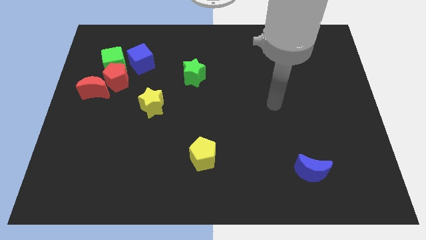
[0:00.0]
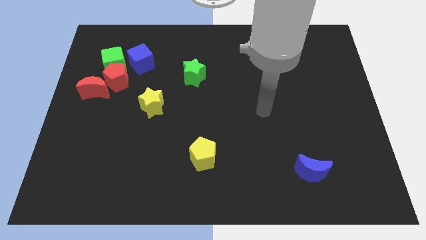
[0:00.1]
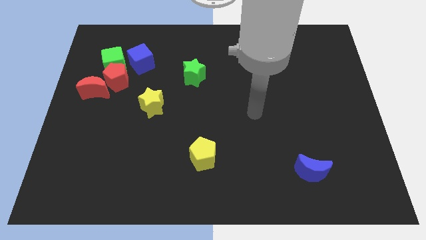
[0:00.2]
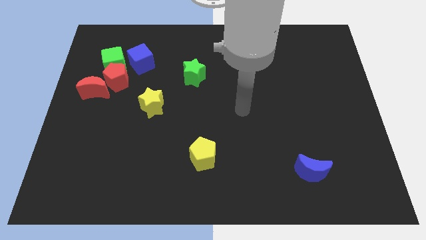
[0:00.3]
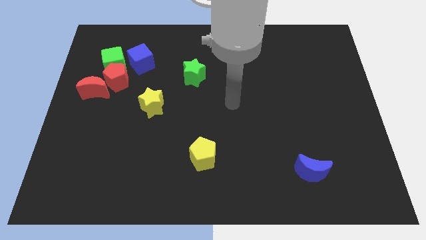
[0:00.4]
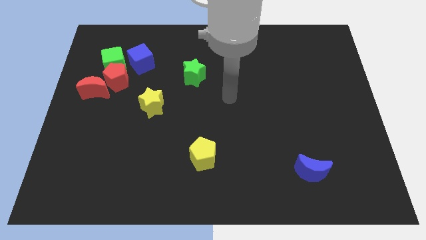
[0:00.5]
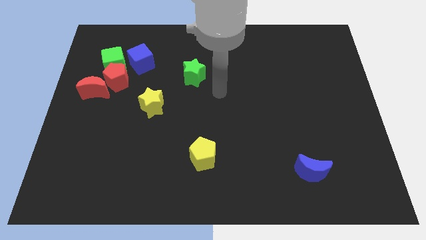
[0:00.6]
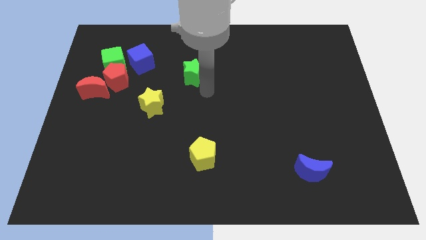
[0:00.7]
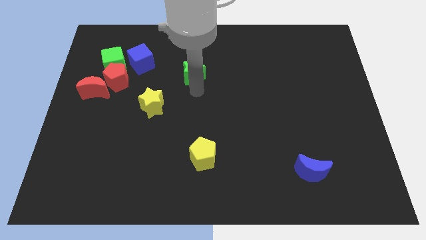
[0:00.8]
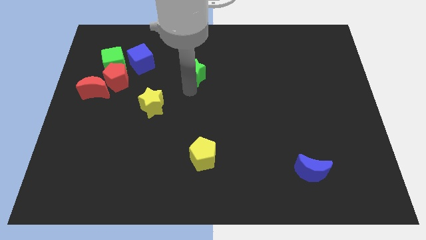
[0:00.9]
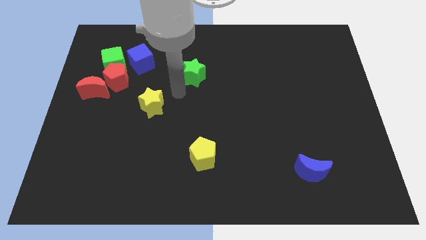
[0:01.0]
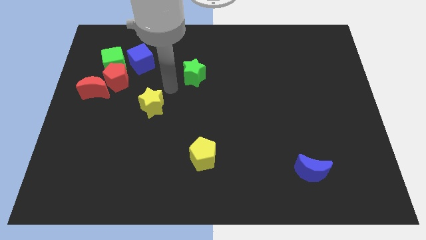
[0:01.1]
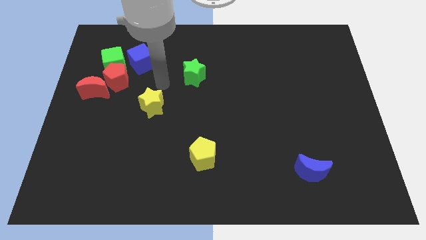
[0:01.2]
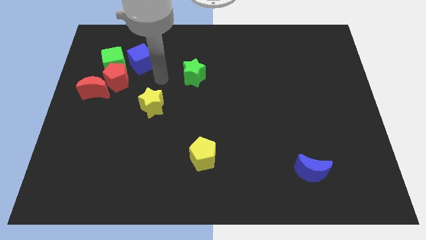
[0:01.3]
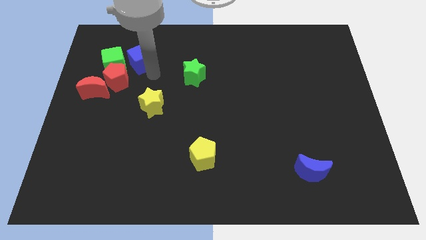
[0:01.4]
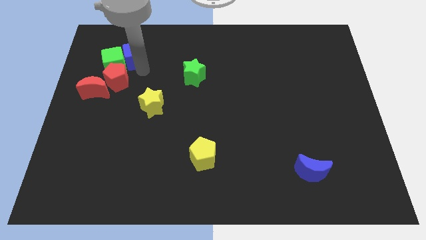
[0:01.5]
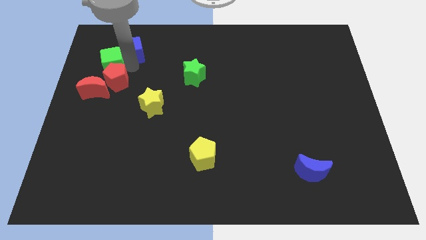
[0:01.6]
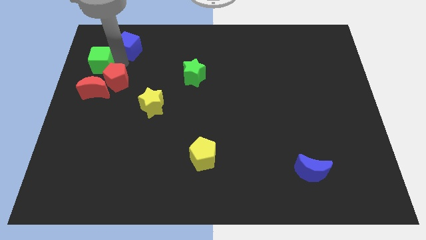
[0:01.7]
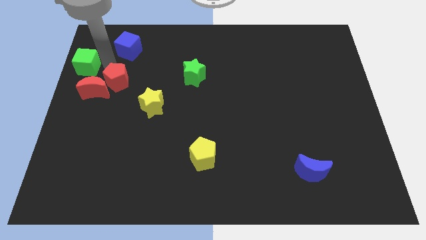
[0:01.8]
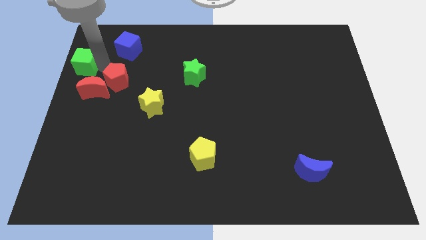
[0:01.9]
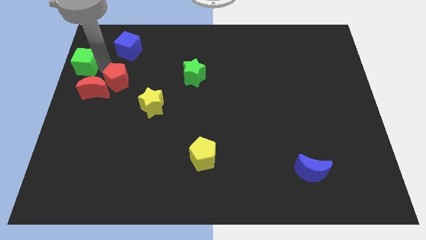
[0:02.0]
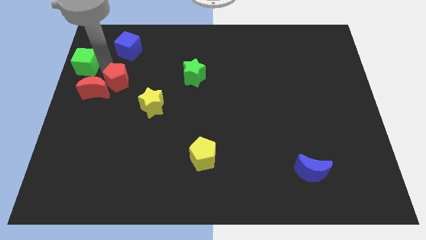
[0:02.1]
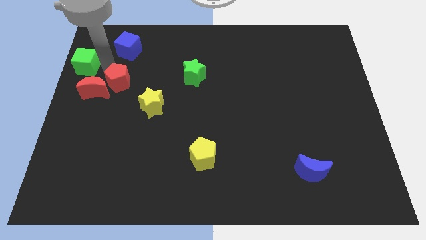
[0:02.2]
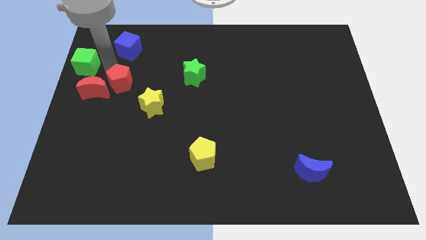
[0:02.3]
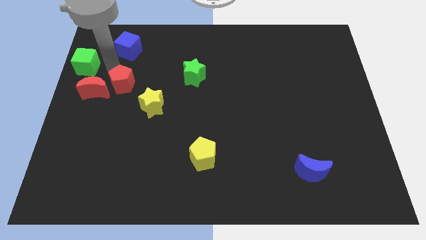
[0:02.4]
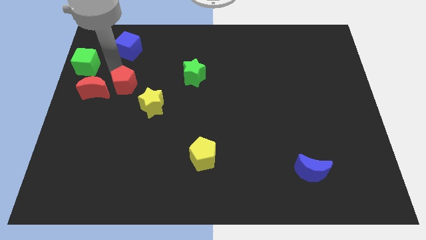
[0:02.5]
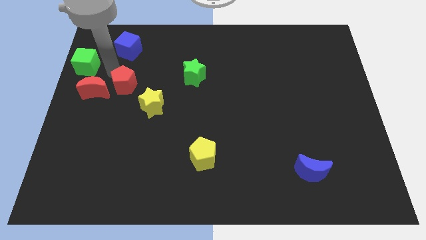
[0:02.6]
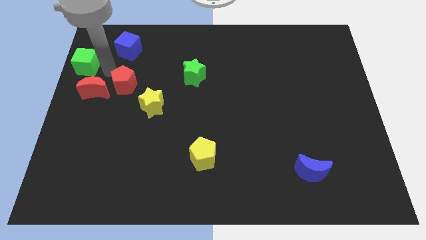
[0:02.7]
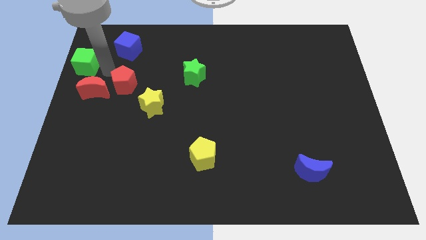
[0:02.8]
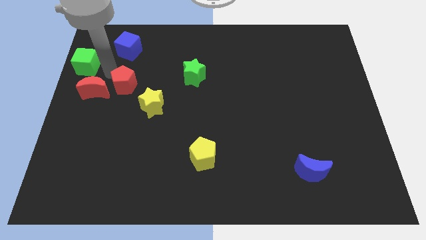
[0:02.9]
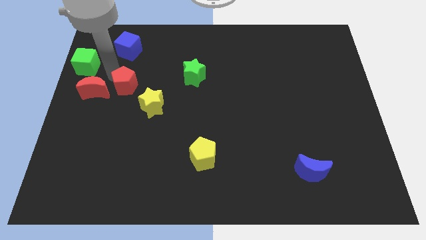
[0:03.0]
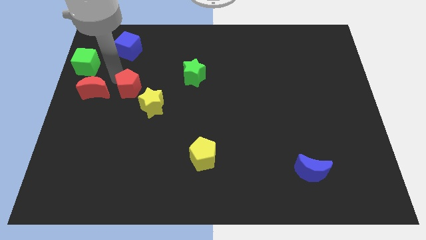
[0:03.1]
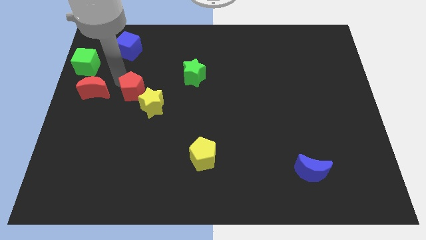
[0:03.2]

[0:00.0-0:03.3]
move the red pentagon away from the green cube, red moon, and blue cube

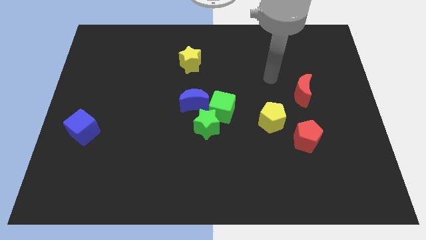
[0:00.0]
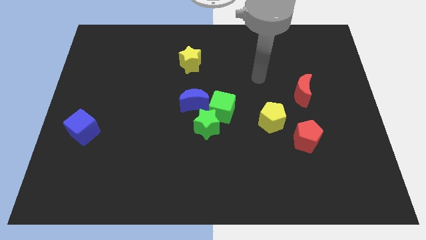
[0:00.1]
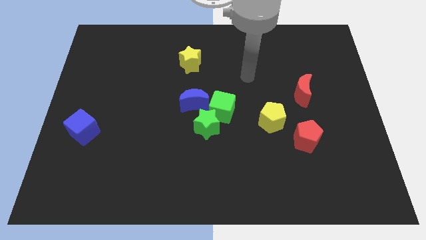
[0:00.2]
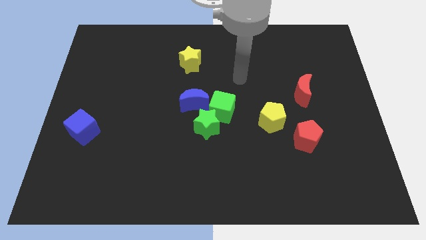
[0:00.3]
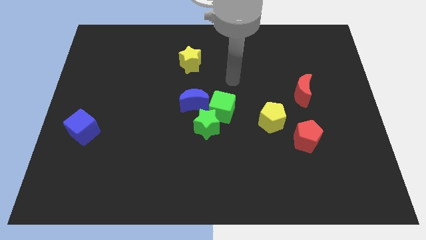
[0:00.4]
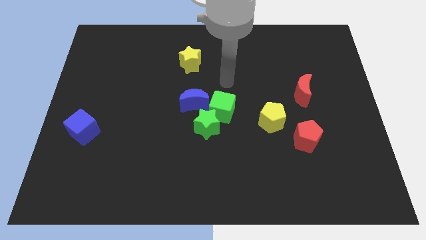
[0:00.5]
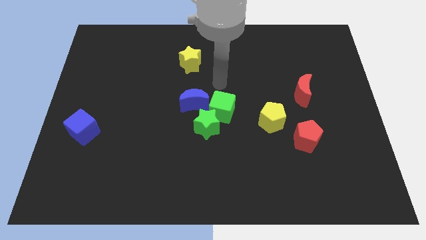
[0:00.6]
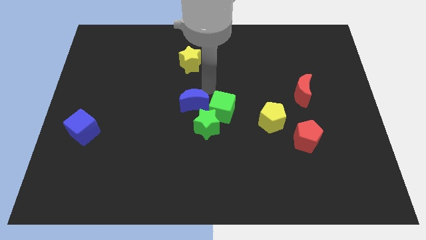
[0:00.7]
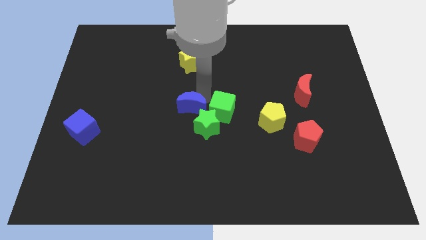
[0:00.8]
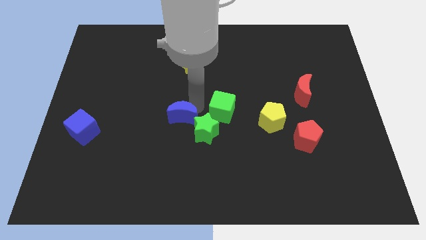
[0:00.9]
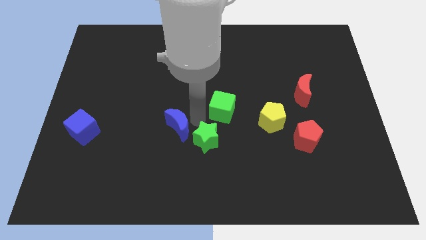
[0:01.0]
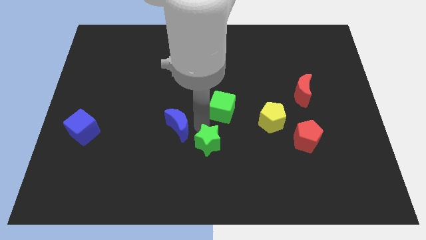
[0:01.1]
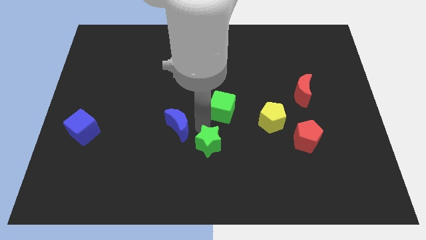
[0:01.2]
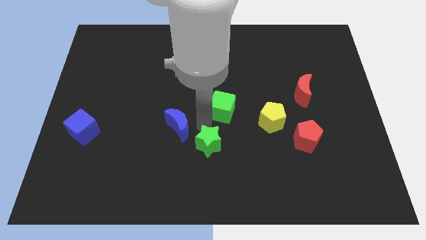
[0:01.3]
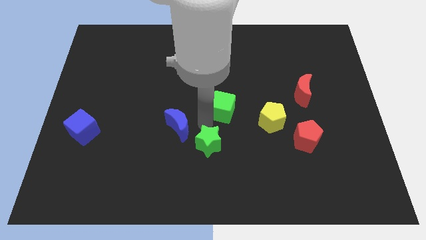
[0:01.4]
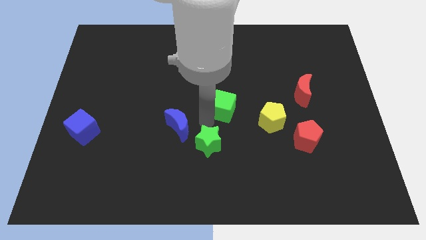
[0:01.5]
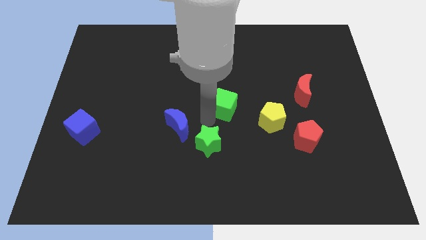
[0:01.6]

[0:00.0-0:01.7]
pull the green cube apart from the green star and blue moon

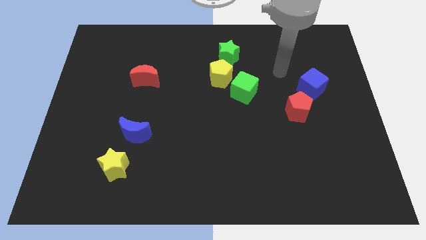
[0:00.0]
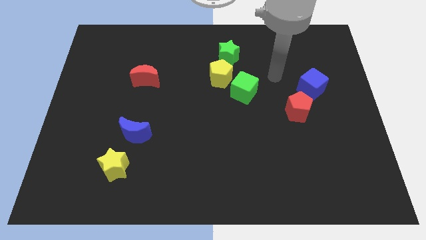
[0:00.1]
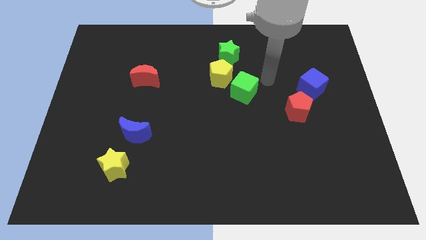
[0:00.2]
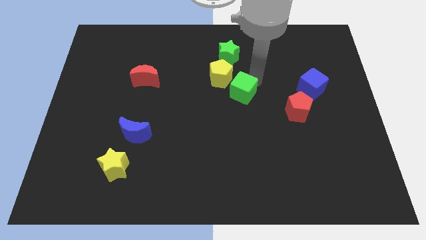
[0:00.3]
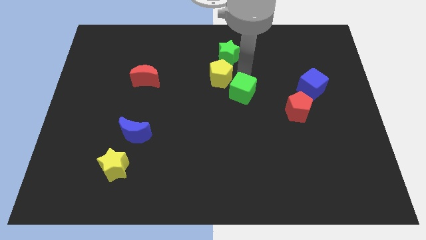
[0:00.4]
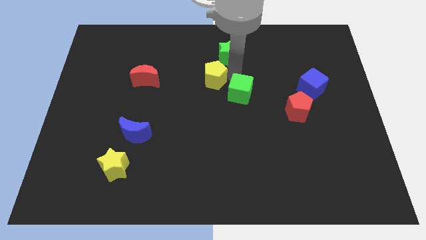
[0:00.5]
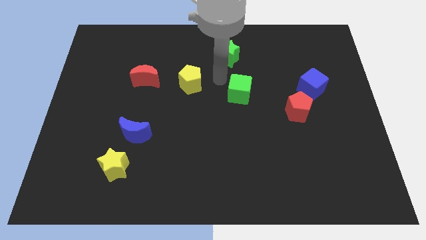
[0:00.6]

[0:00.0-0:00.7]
pull the green cube apart from the yellow pentagon

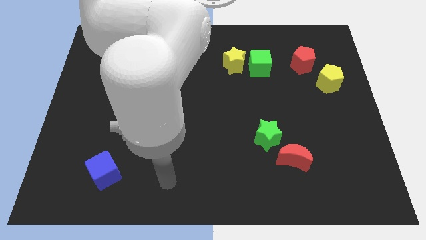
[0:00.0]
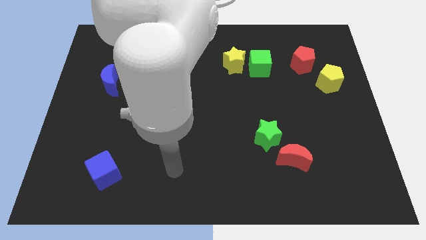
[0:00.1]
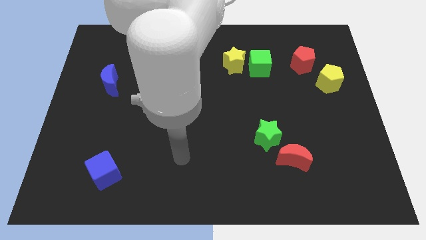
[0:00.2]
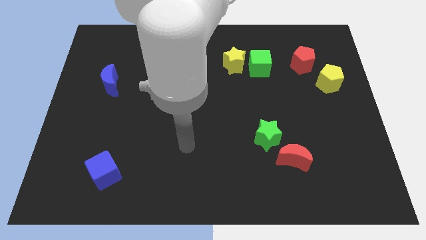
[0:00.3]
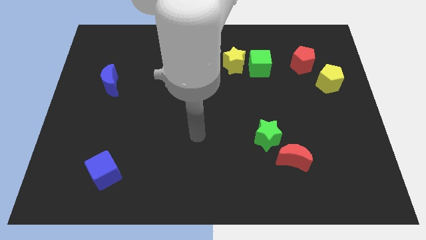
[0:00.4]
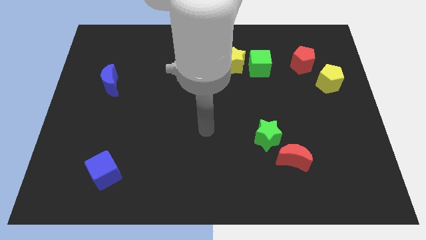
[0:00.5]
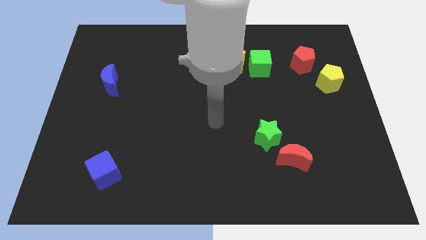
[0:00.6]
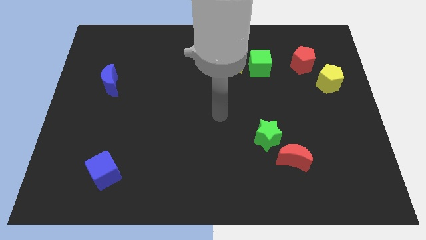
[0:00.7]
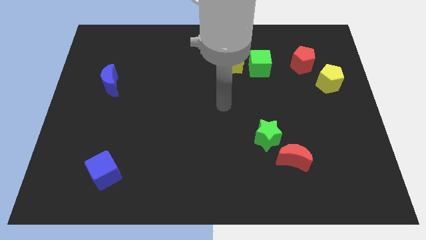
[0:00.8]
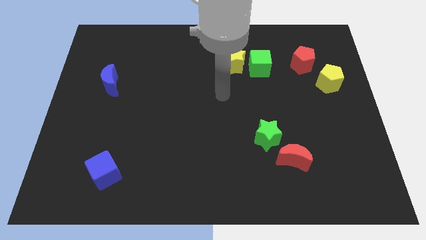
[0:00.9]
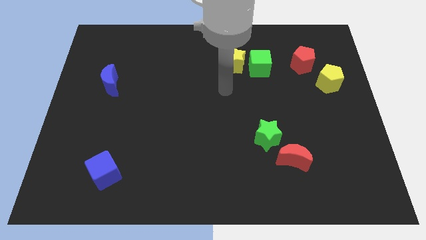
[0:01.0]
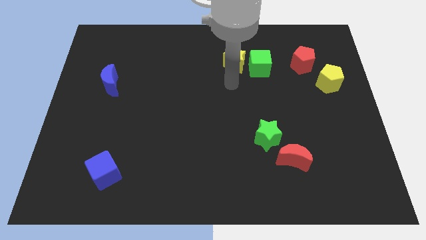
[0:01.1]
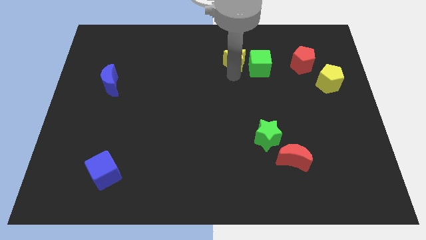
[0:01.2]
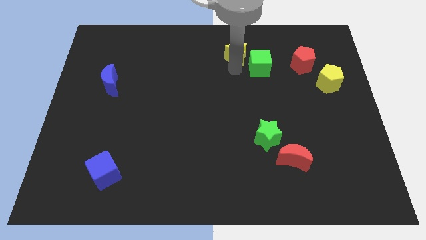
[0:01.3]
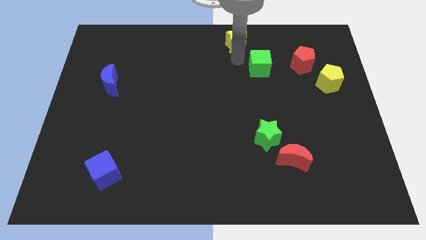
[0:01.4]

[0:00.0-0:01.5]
separate the green cube from the yellow star

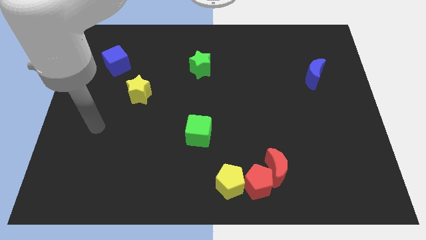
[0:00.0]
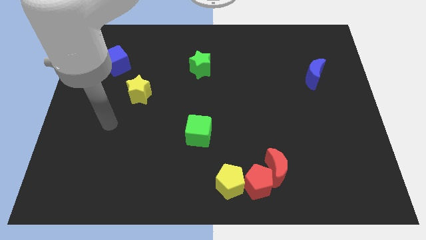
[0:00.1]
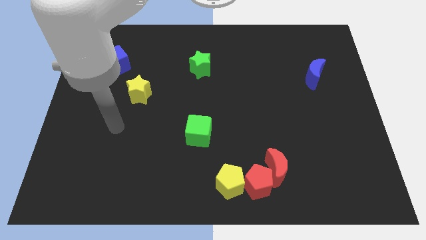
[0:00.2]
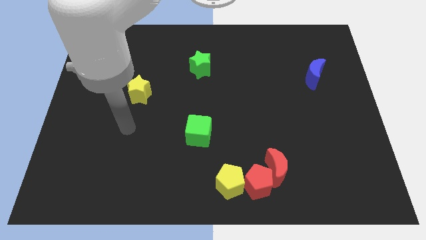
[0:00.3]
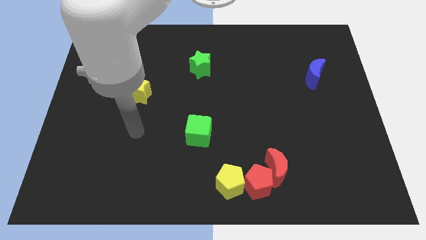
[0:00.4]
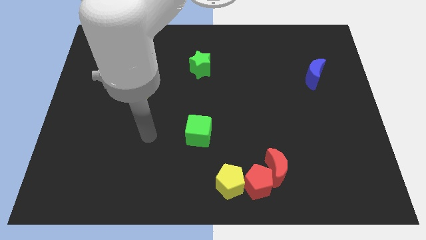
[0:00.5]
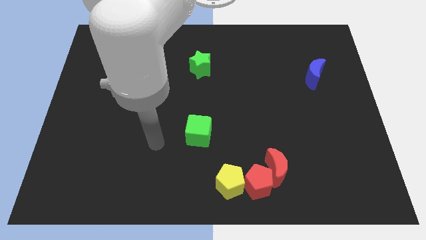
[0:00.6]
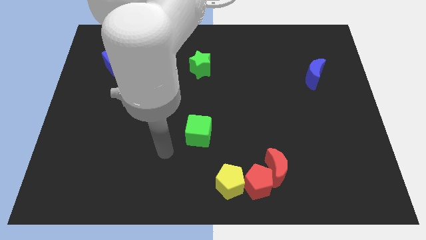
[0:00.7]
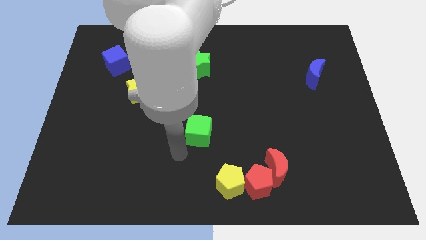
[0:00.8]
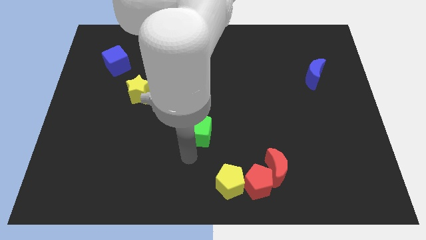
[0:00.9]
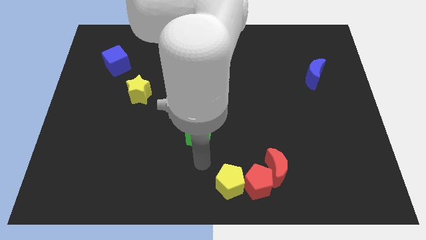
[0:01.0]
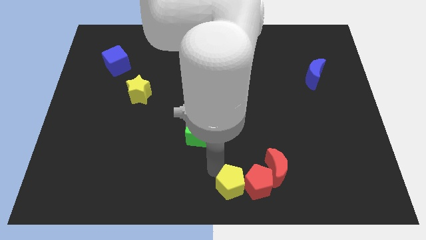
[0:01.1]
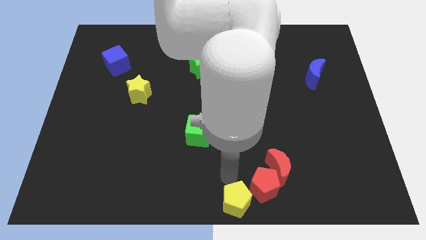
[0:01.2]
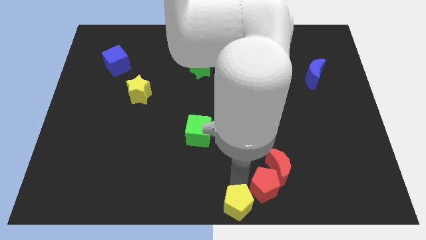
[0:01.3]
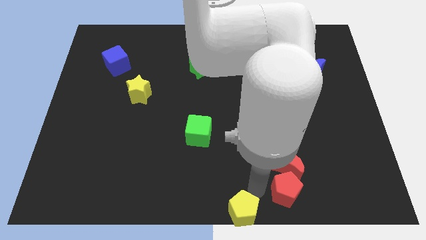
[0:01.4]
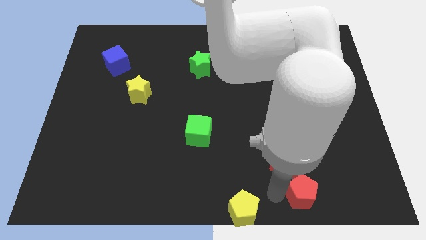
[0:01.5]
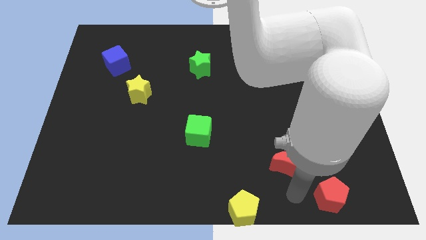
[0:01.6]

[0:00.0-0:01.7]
pull the red moon apart from the red pentagon

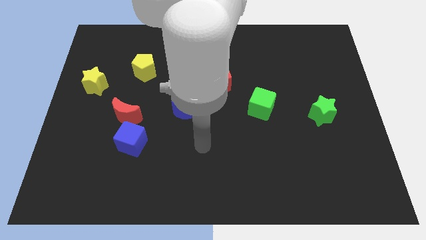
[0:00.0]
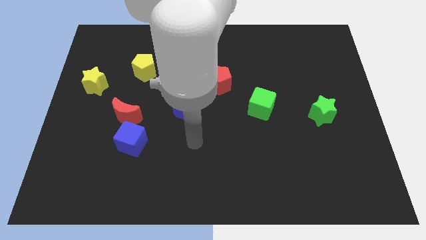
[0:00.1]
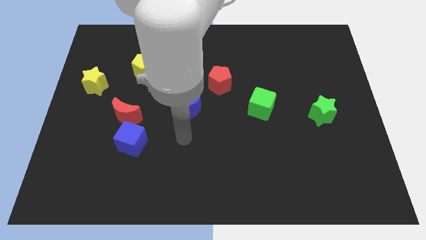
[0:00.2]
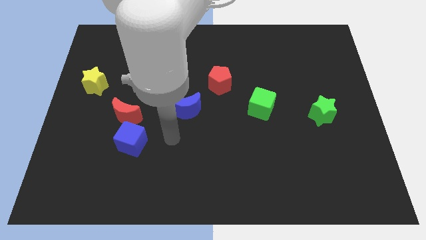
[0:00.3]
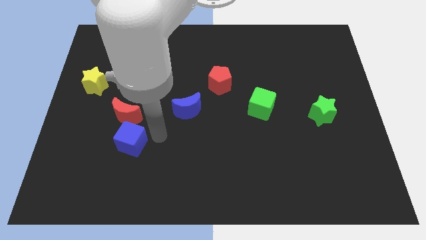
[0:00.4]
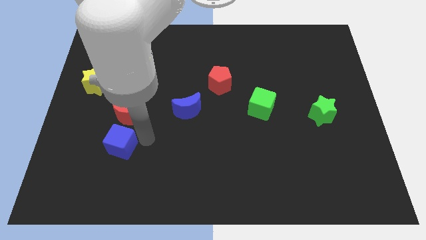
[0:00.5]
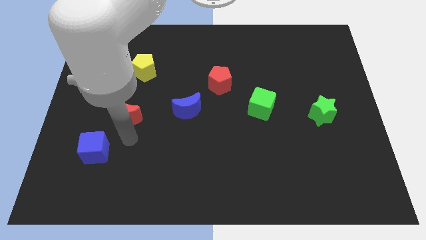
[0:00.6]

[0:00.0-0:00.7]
move the red moon away from the blue cube
